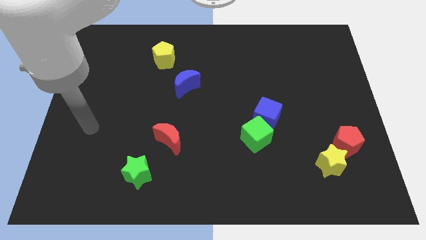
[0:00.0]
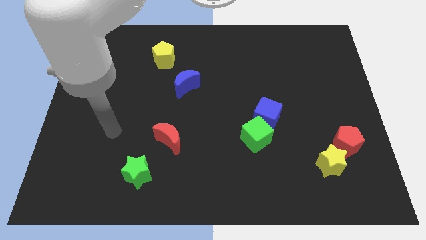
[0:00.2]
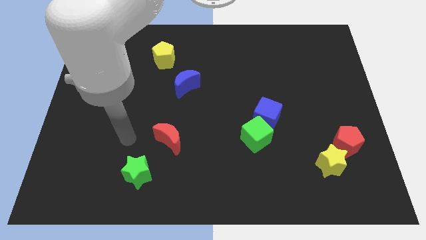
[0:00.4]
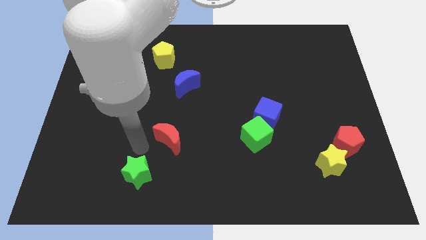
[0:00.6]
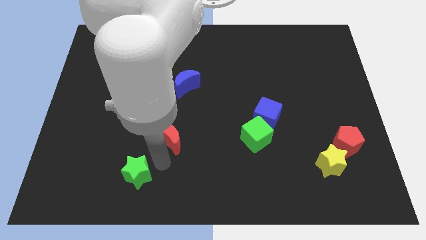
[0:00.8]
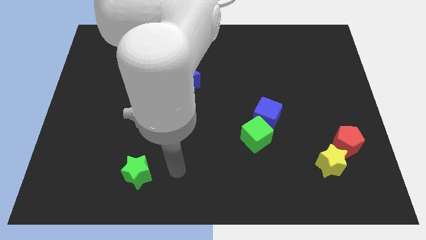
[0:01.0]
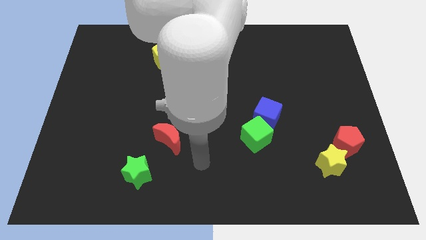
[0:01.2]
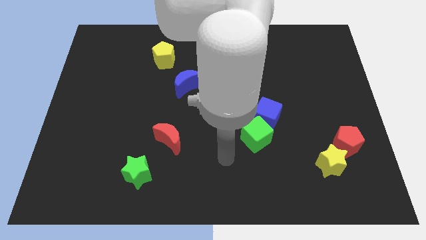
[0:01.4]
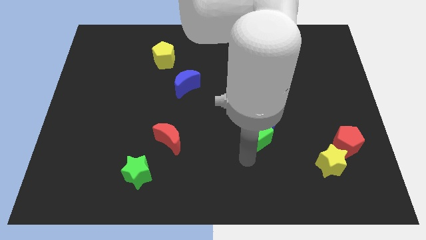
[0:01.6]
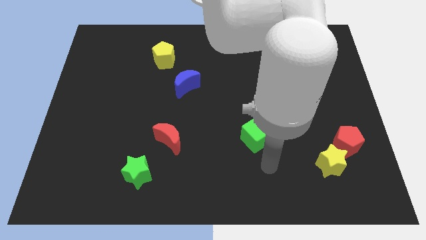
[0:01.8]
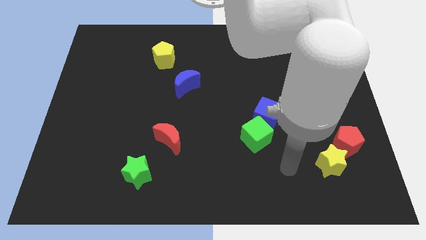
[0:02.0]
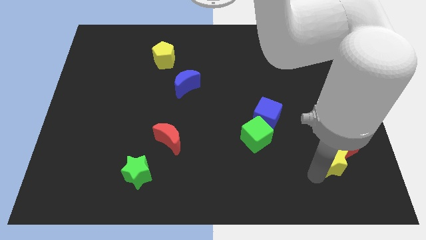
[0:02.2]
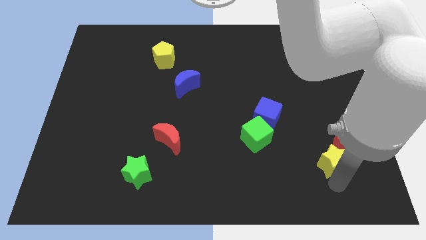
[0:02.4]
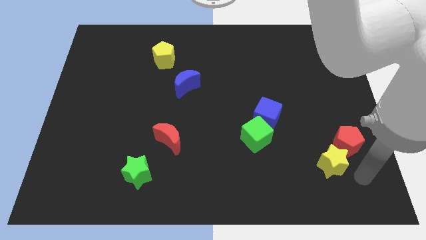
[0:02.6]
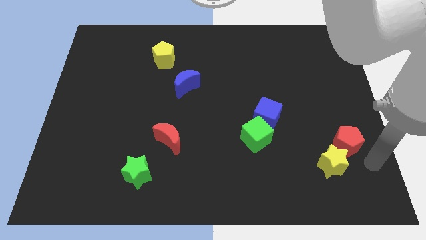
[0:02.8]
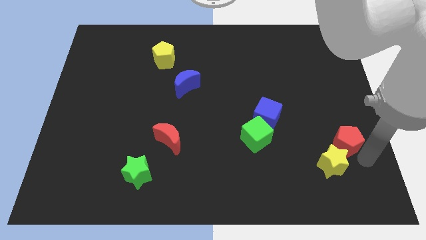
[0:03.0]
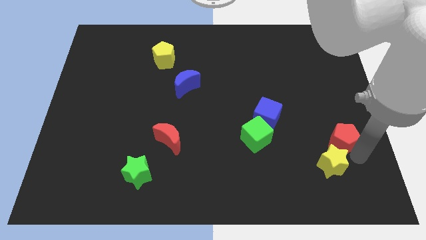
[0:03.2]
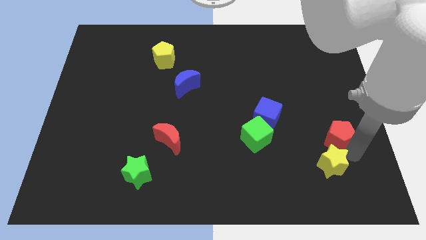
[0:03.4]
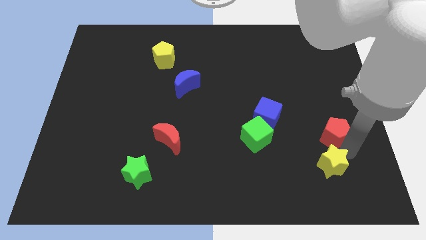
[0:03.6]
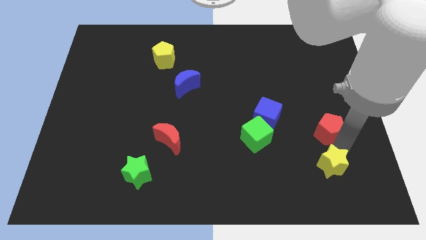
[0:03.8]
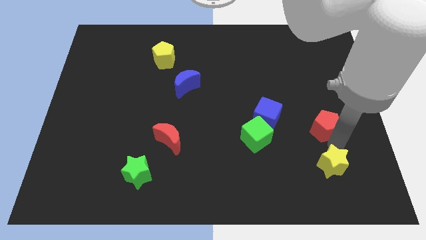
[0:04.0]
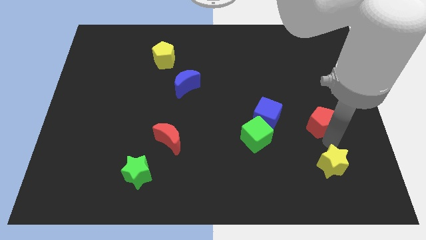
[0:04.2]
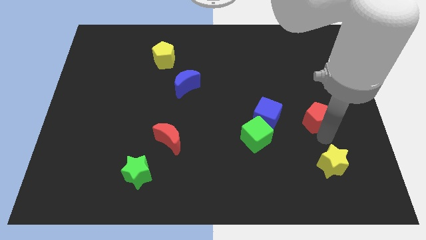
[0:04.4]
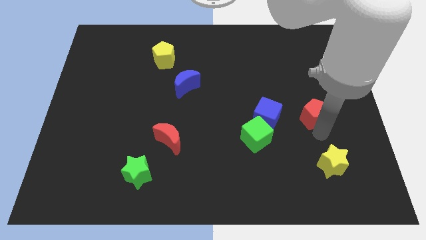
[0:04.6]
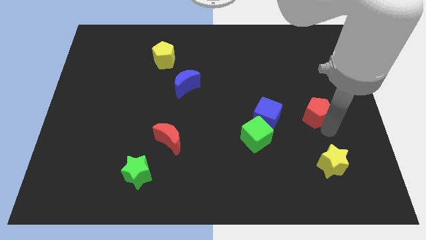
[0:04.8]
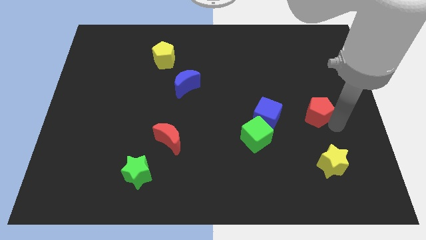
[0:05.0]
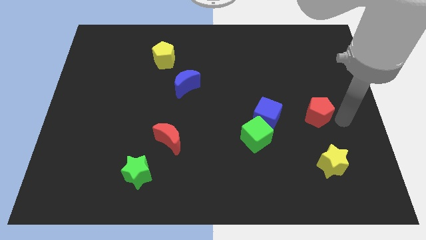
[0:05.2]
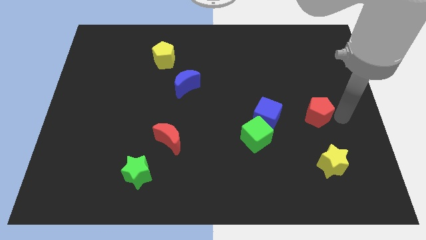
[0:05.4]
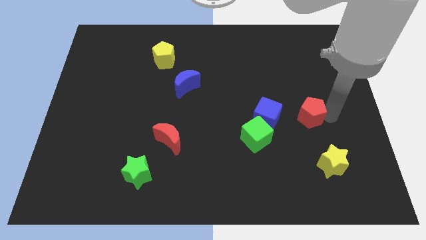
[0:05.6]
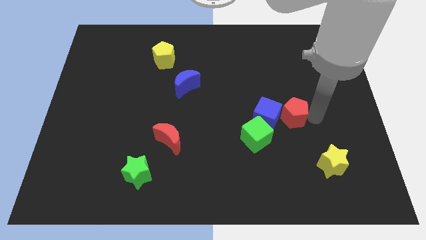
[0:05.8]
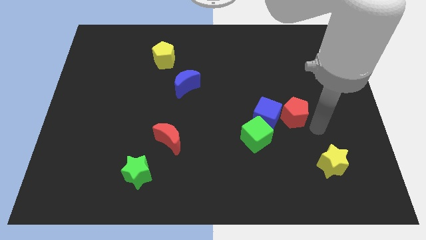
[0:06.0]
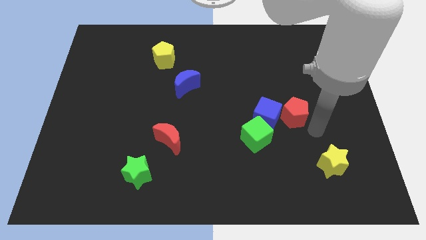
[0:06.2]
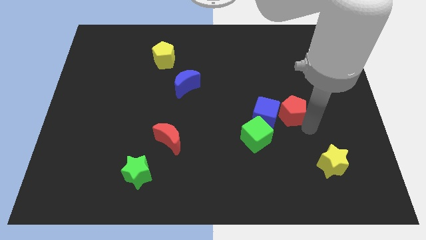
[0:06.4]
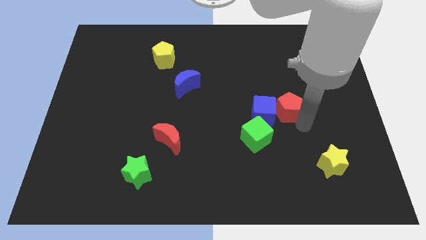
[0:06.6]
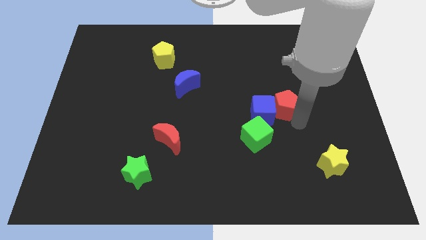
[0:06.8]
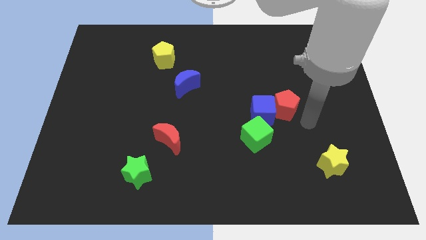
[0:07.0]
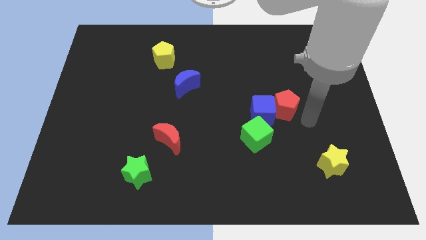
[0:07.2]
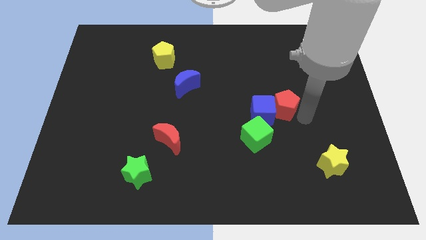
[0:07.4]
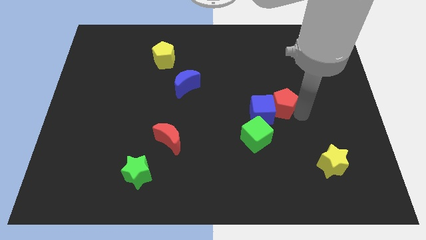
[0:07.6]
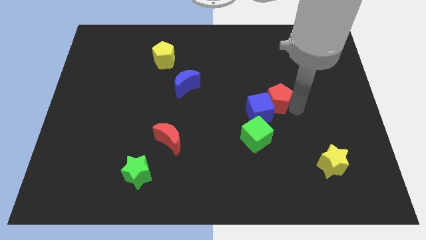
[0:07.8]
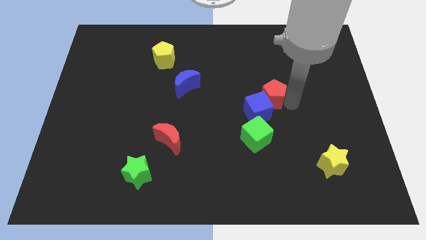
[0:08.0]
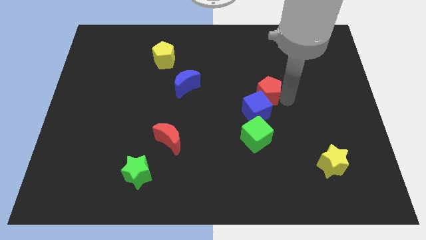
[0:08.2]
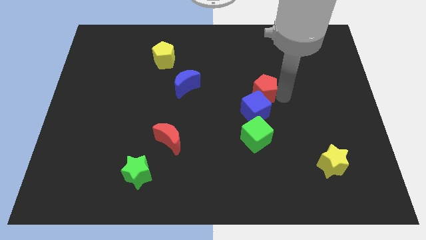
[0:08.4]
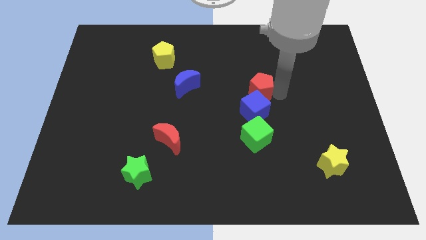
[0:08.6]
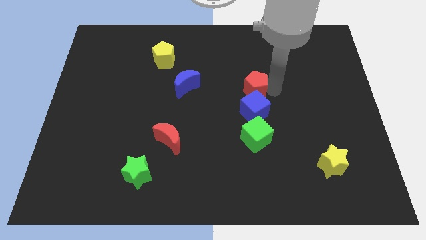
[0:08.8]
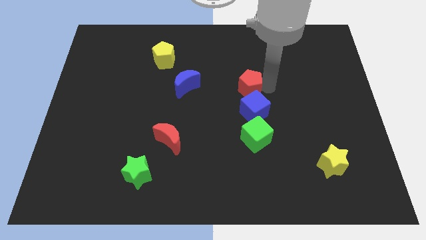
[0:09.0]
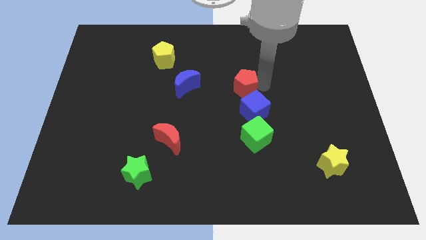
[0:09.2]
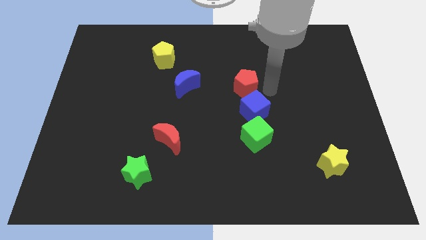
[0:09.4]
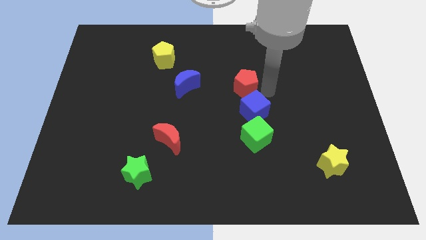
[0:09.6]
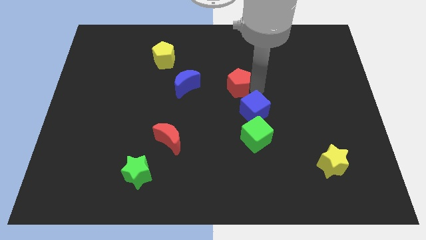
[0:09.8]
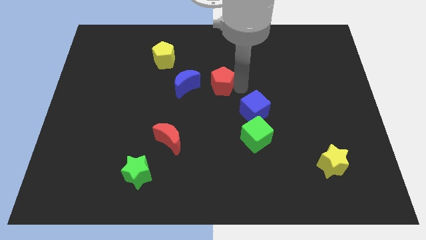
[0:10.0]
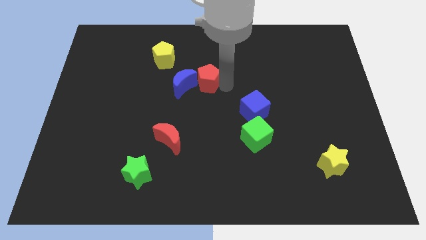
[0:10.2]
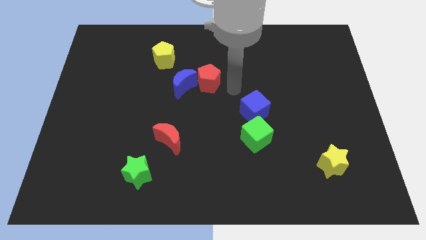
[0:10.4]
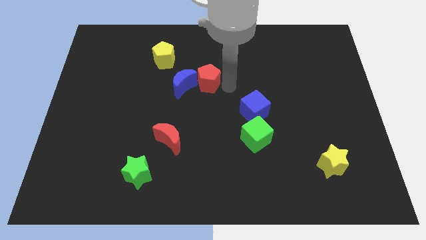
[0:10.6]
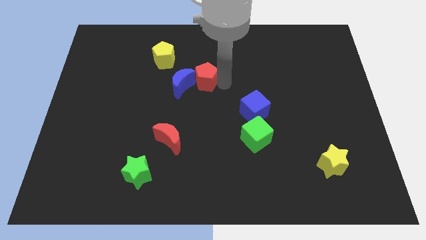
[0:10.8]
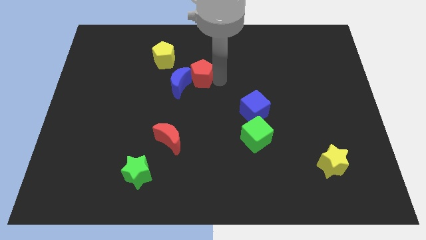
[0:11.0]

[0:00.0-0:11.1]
slide the red pentagon to the bottom right of the yellow pentagon
